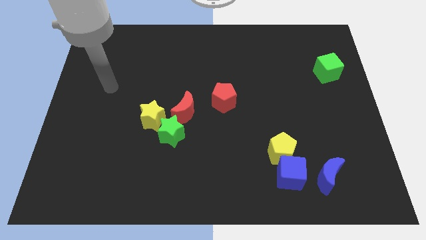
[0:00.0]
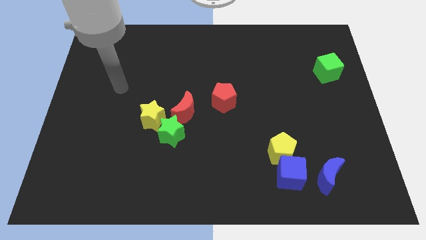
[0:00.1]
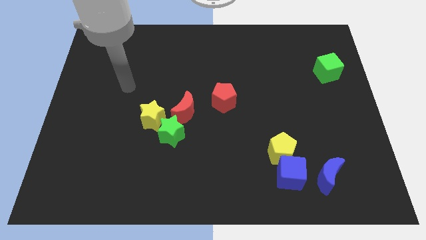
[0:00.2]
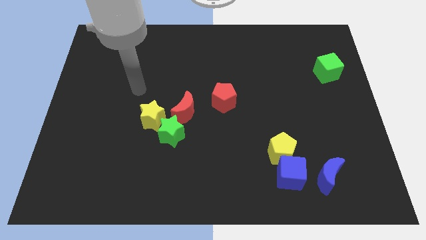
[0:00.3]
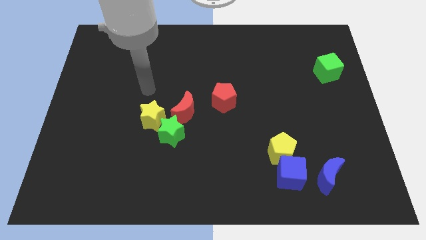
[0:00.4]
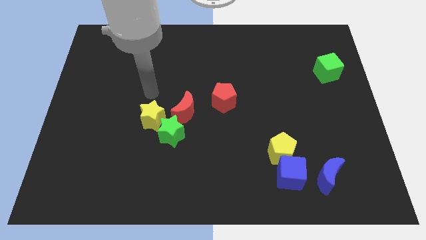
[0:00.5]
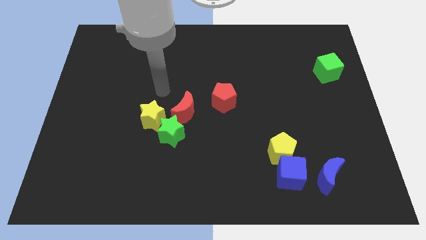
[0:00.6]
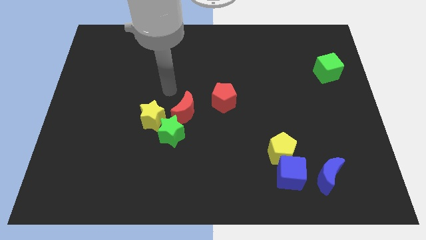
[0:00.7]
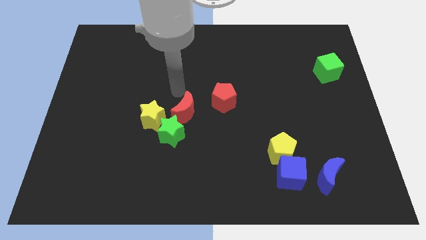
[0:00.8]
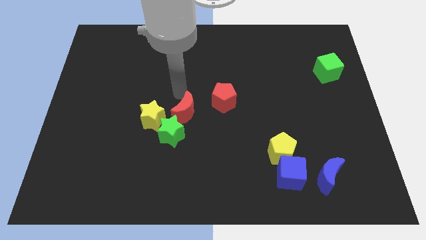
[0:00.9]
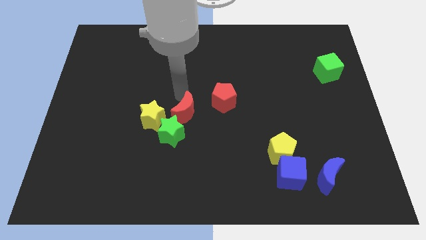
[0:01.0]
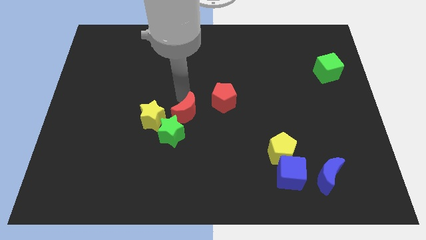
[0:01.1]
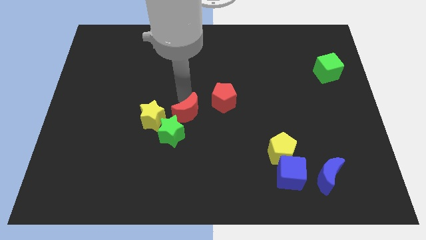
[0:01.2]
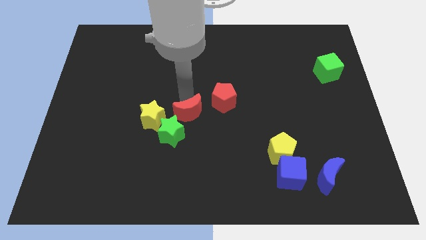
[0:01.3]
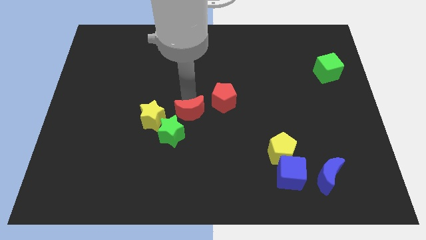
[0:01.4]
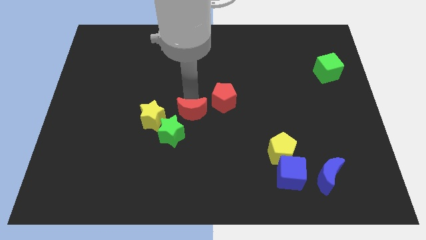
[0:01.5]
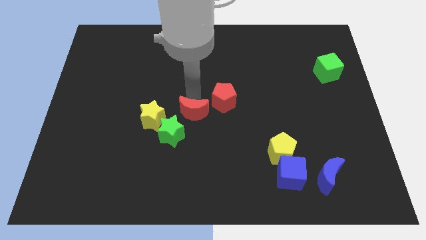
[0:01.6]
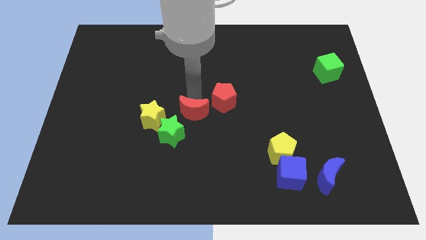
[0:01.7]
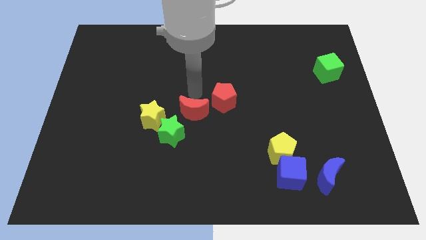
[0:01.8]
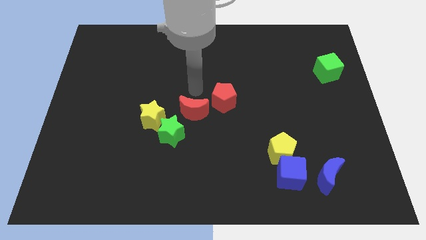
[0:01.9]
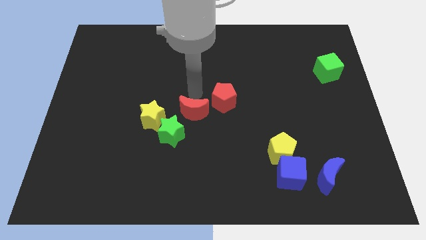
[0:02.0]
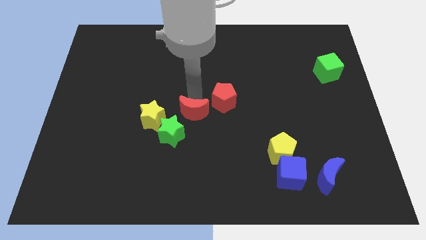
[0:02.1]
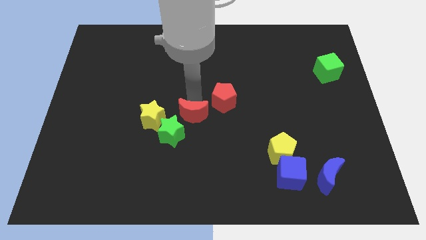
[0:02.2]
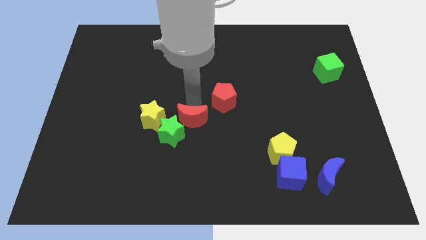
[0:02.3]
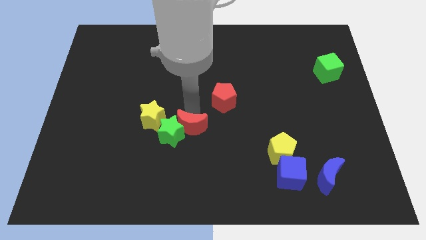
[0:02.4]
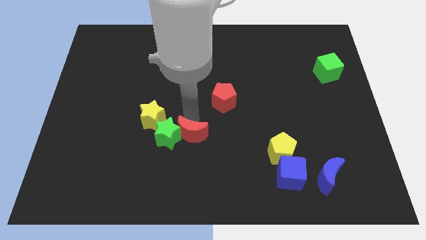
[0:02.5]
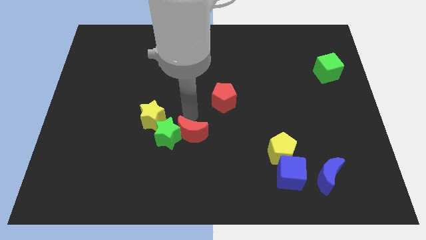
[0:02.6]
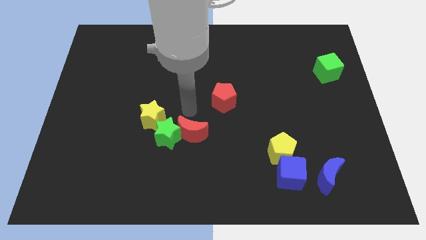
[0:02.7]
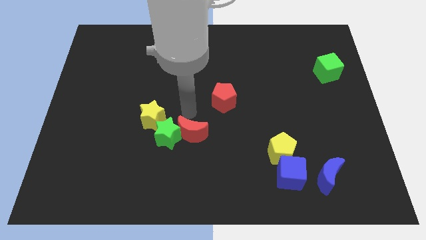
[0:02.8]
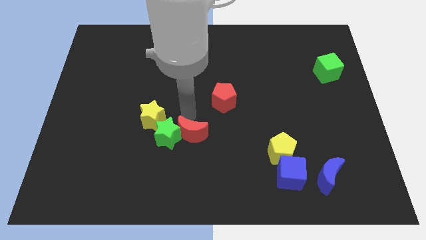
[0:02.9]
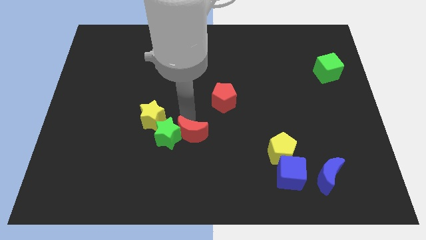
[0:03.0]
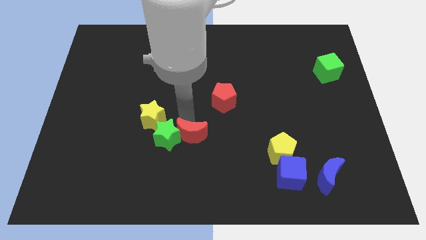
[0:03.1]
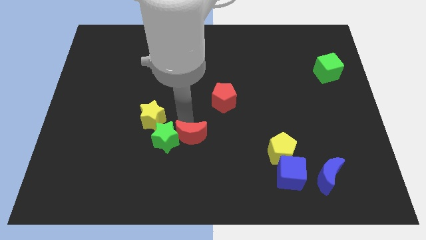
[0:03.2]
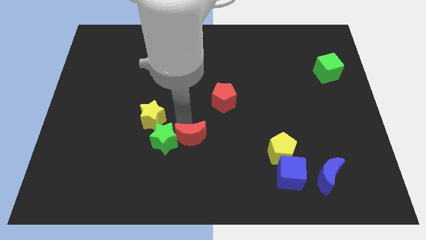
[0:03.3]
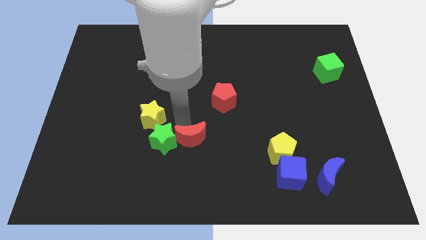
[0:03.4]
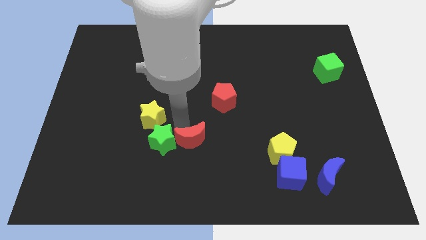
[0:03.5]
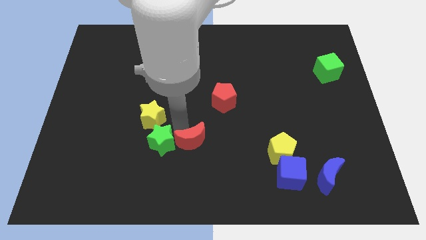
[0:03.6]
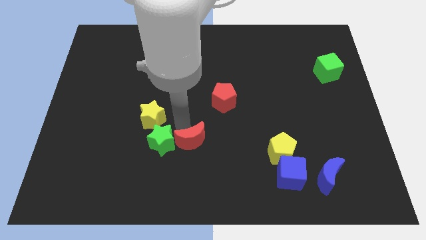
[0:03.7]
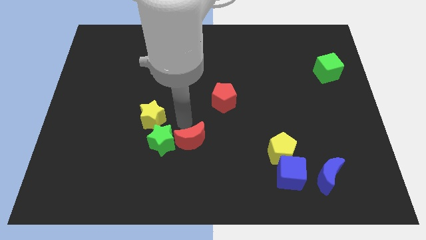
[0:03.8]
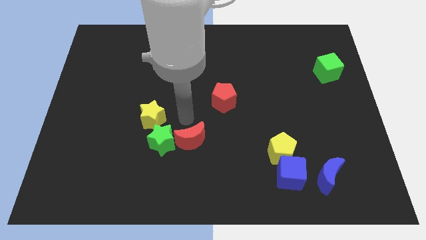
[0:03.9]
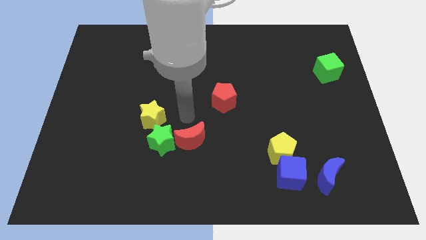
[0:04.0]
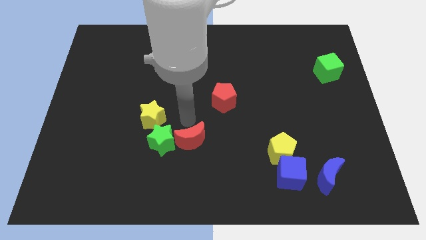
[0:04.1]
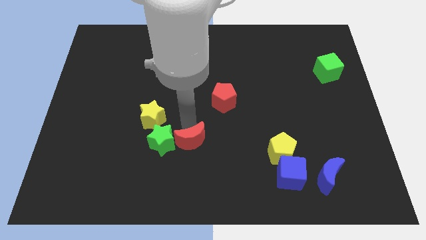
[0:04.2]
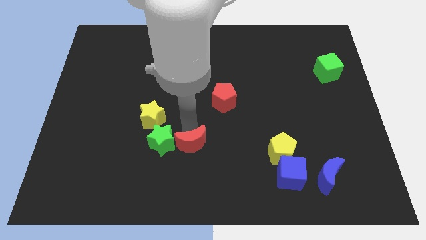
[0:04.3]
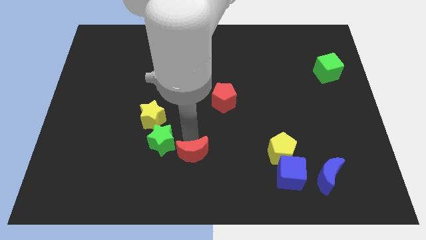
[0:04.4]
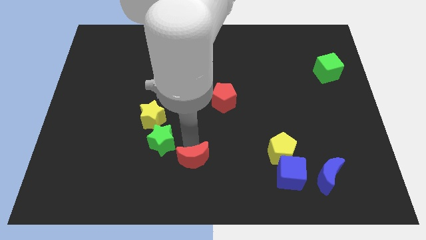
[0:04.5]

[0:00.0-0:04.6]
push the red moon to the bottom side

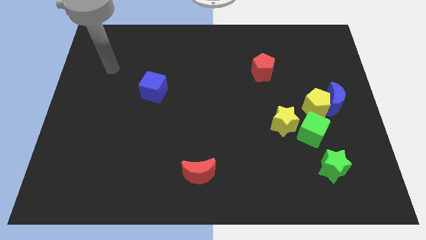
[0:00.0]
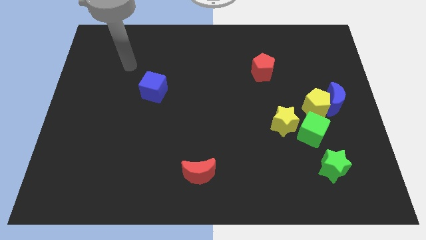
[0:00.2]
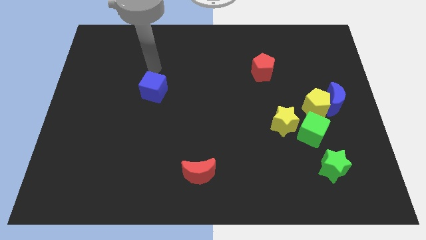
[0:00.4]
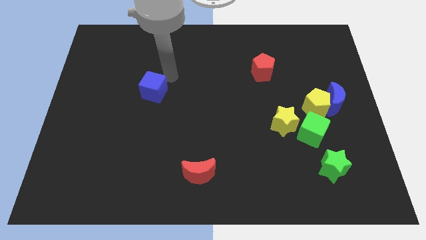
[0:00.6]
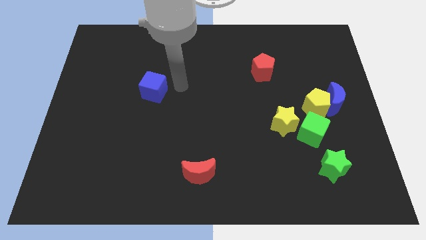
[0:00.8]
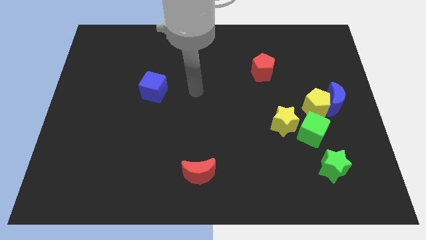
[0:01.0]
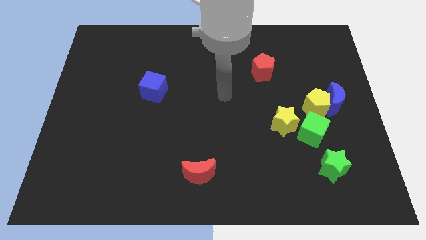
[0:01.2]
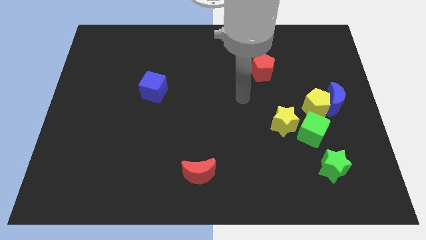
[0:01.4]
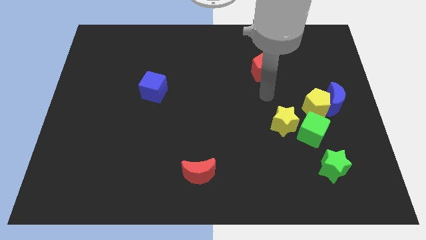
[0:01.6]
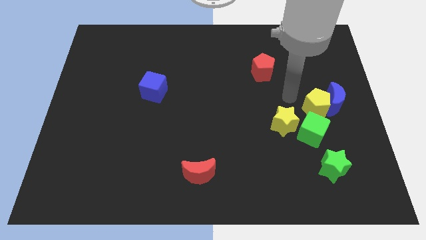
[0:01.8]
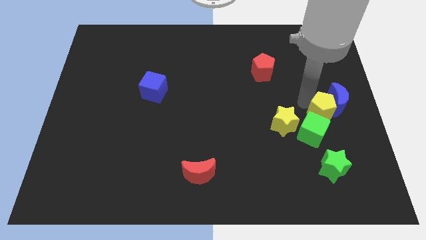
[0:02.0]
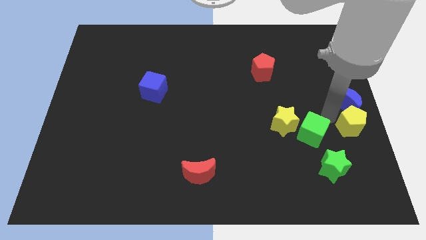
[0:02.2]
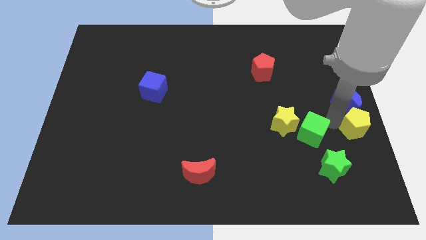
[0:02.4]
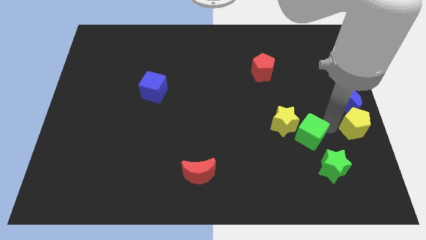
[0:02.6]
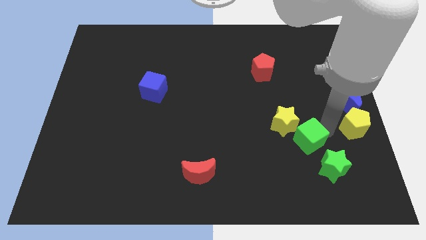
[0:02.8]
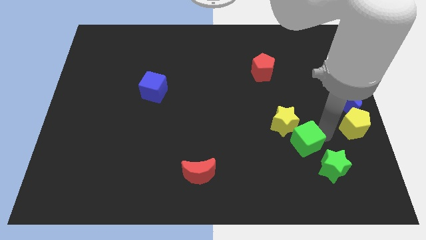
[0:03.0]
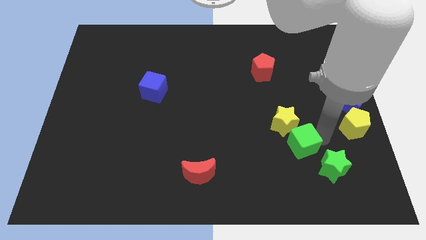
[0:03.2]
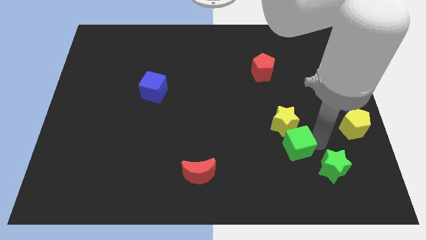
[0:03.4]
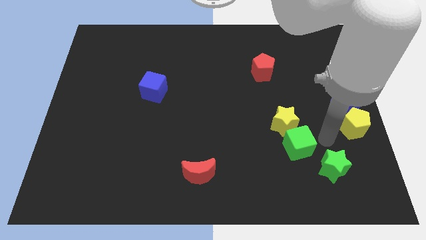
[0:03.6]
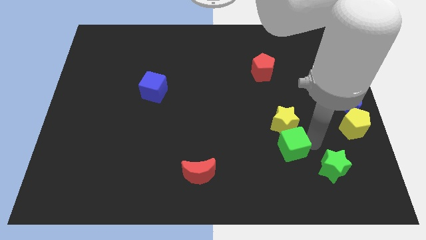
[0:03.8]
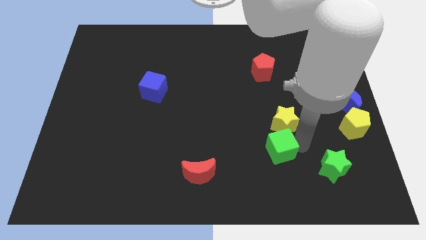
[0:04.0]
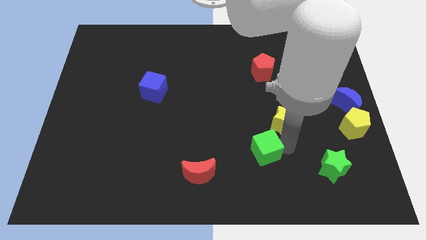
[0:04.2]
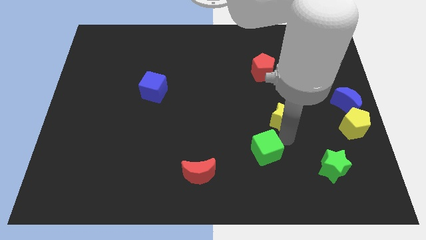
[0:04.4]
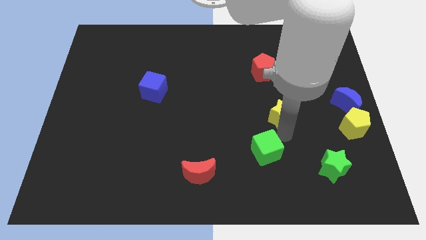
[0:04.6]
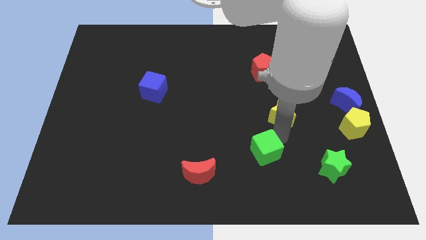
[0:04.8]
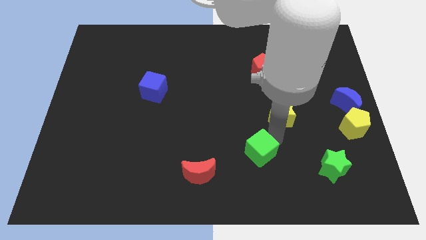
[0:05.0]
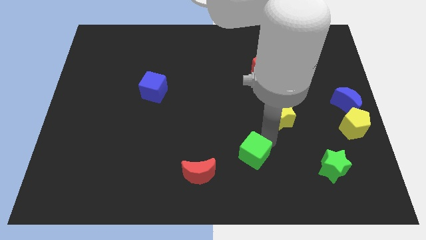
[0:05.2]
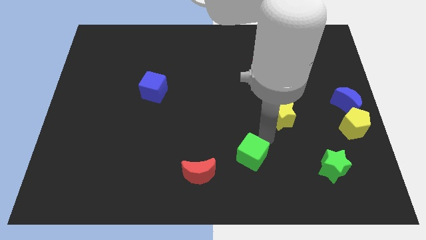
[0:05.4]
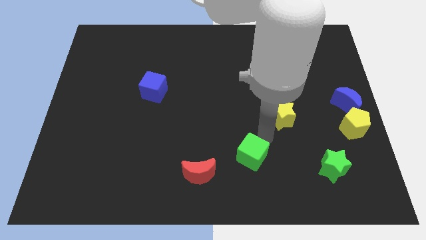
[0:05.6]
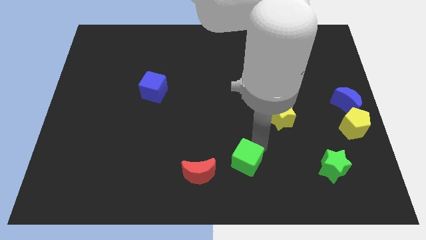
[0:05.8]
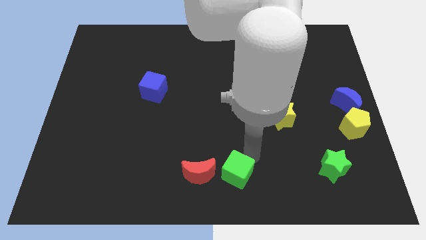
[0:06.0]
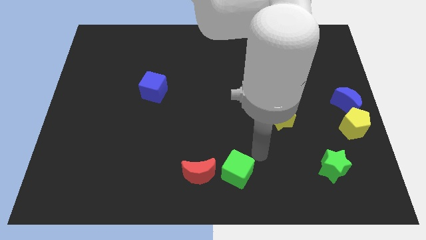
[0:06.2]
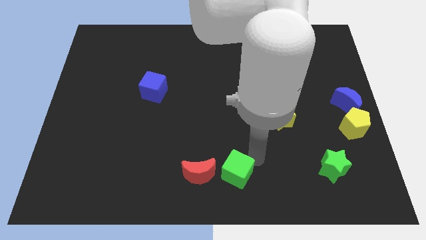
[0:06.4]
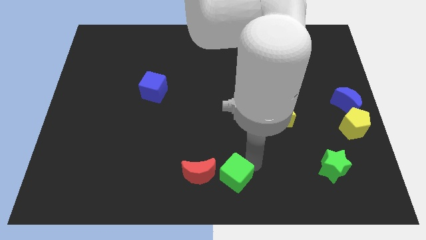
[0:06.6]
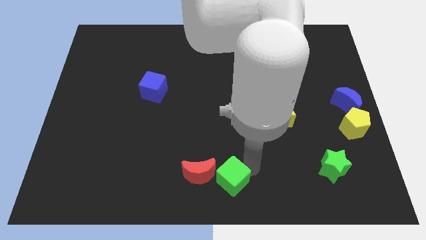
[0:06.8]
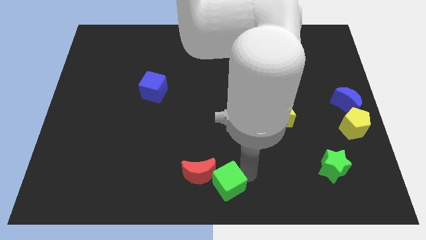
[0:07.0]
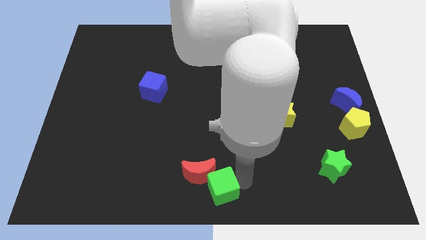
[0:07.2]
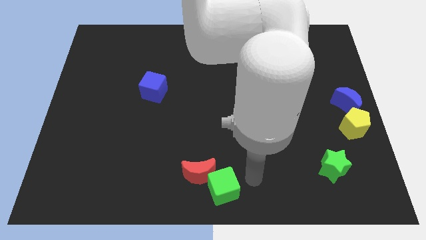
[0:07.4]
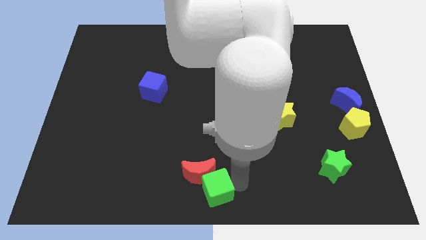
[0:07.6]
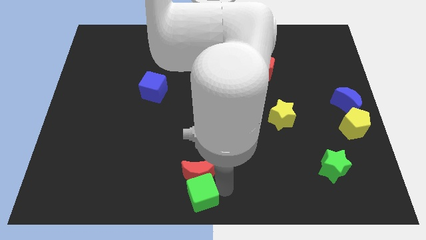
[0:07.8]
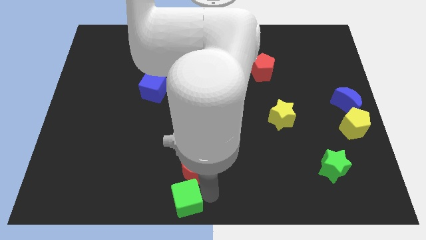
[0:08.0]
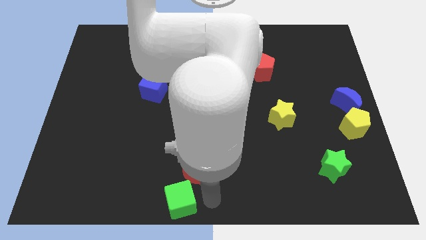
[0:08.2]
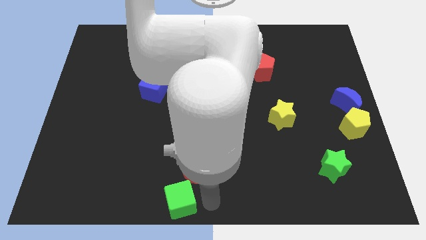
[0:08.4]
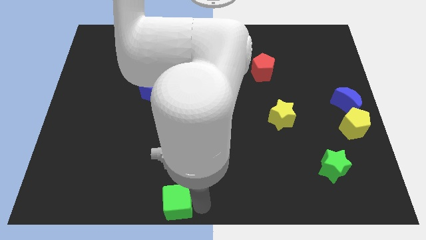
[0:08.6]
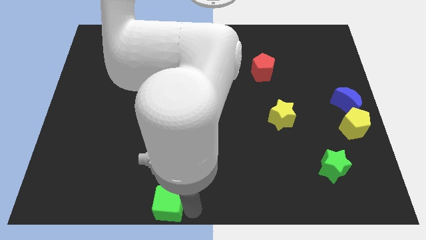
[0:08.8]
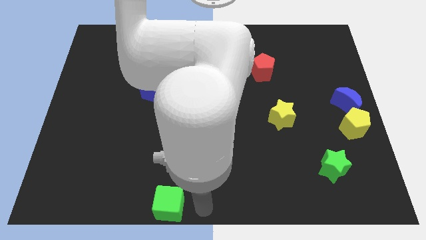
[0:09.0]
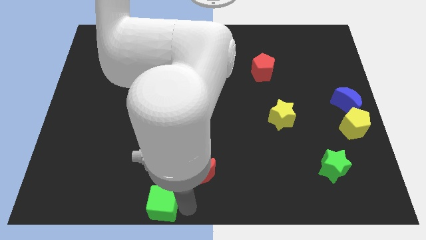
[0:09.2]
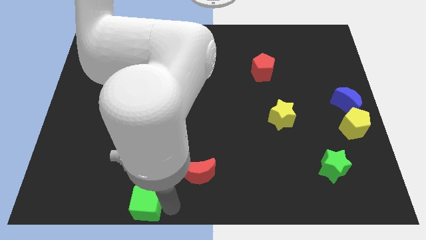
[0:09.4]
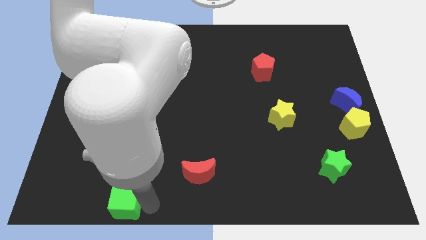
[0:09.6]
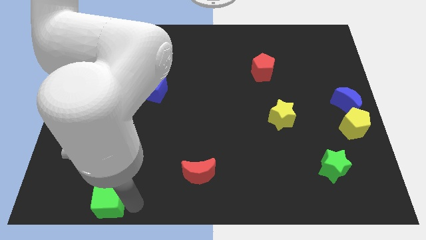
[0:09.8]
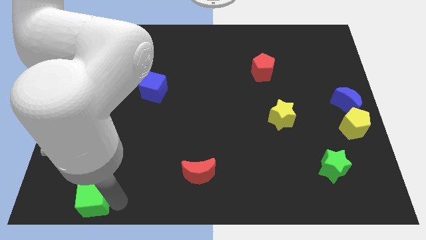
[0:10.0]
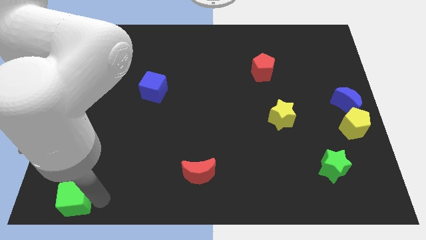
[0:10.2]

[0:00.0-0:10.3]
push the green cube to the bottom left of the board
